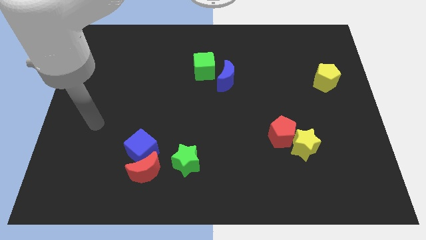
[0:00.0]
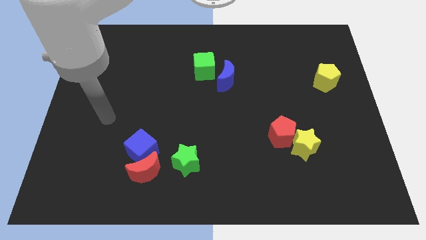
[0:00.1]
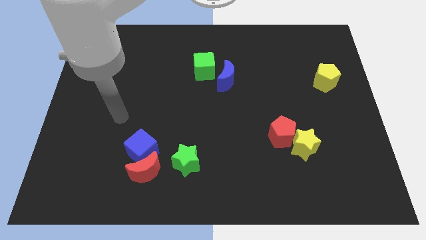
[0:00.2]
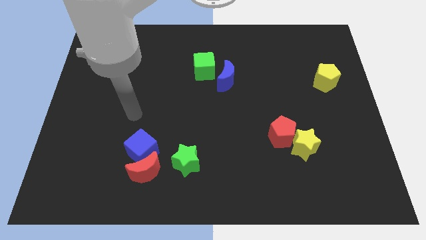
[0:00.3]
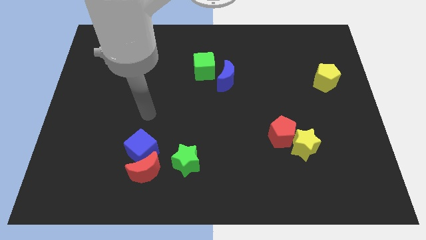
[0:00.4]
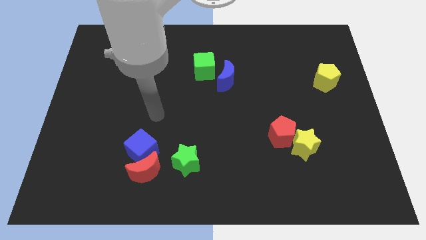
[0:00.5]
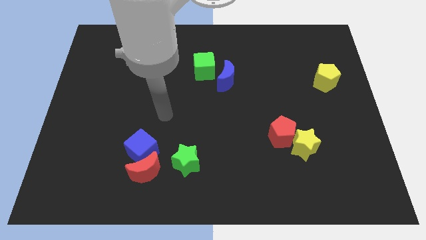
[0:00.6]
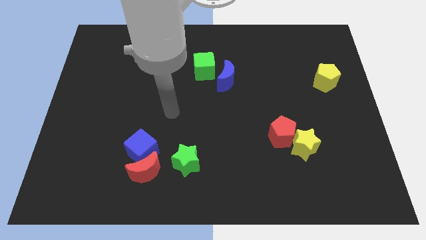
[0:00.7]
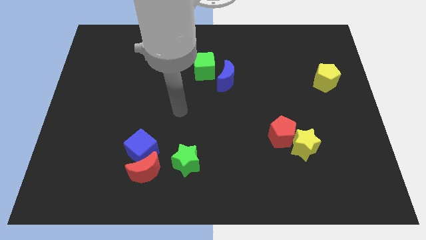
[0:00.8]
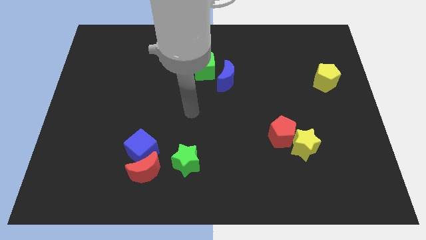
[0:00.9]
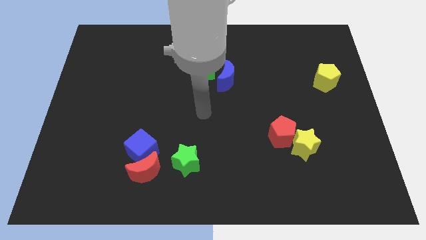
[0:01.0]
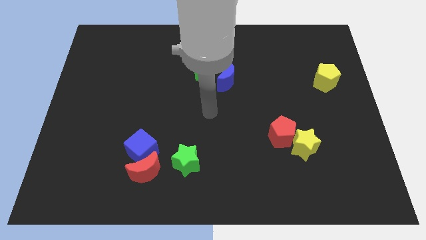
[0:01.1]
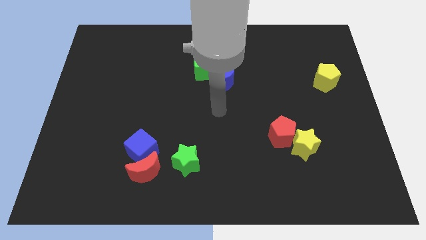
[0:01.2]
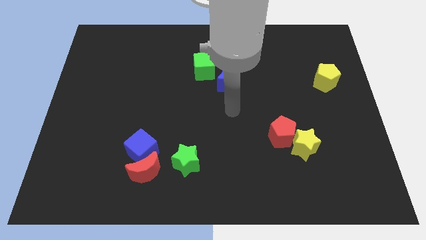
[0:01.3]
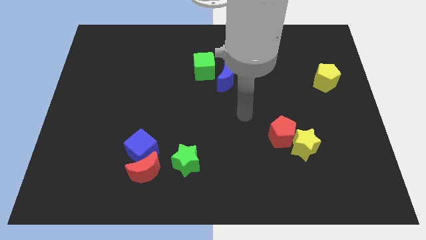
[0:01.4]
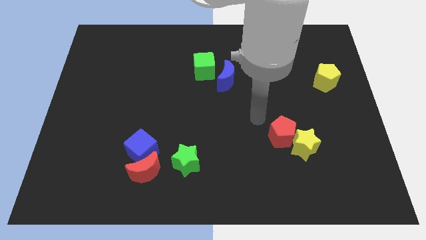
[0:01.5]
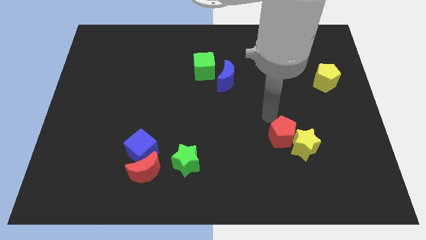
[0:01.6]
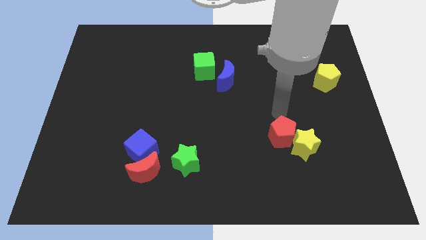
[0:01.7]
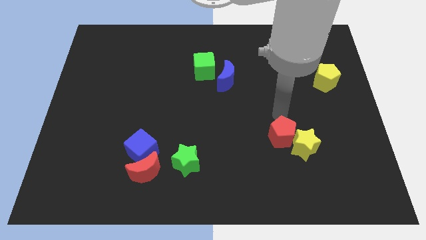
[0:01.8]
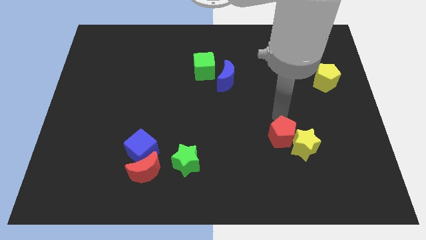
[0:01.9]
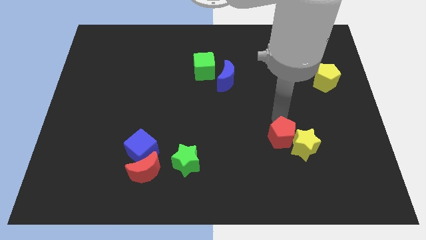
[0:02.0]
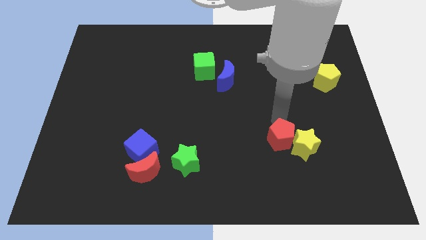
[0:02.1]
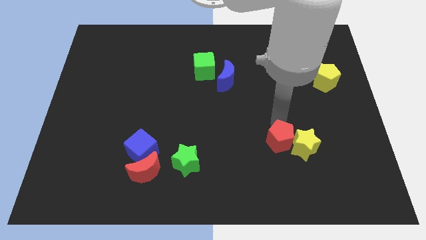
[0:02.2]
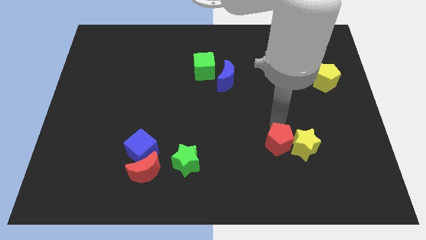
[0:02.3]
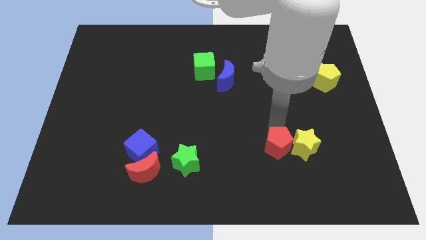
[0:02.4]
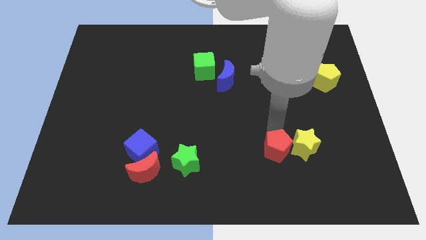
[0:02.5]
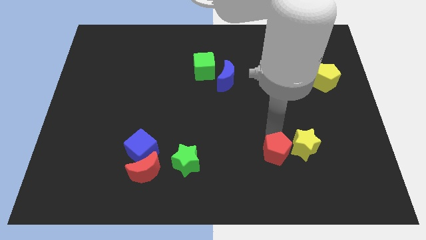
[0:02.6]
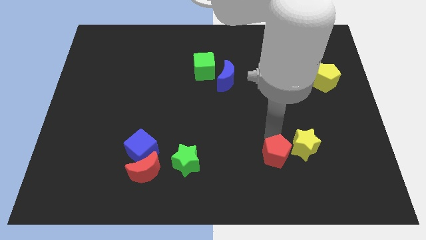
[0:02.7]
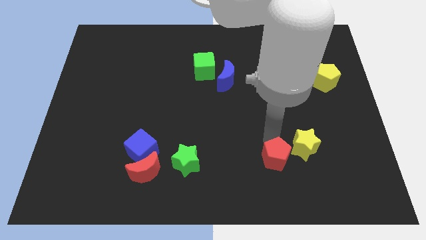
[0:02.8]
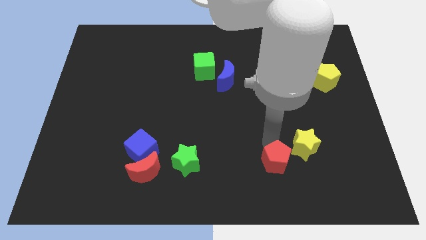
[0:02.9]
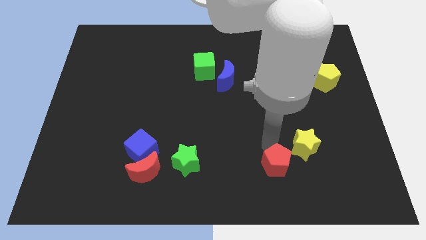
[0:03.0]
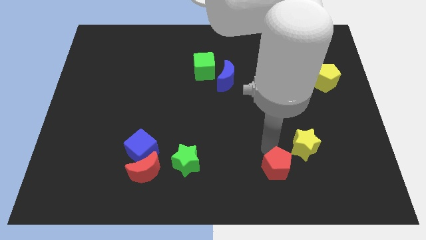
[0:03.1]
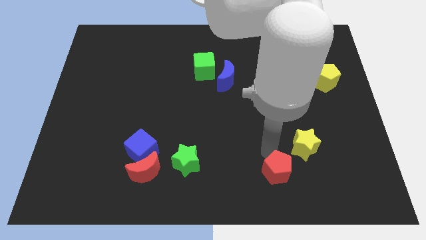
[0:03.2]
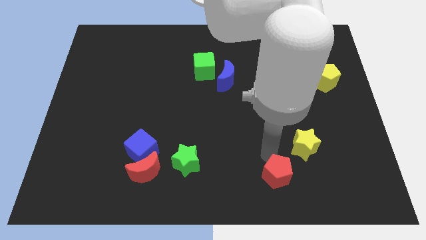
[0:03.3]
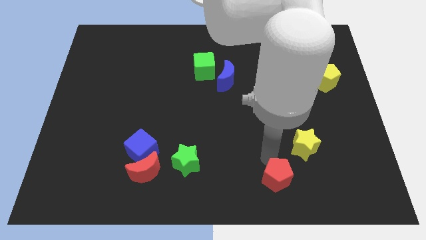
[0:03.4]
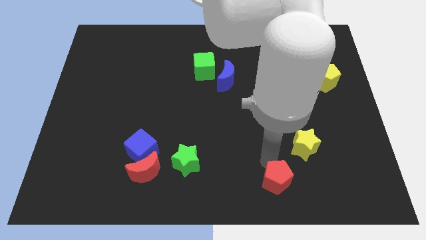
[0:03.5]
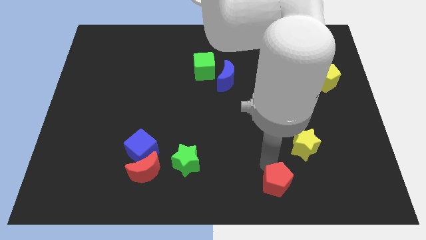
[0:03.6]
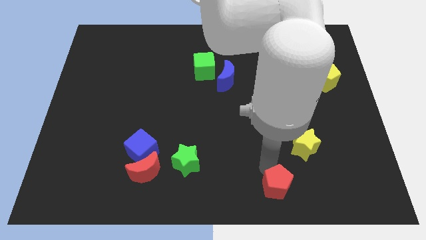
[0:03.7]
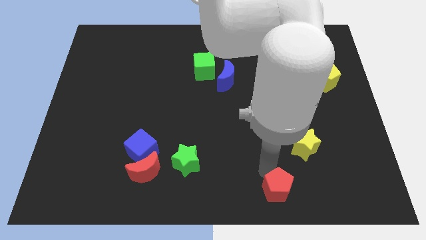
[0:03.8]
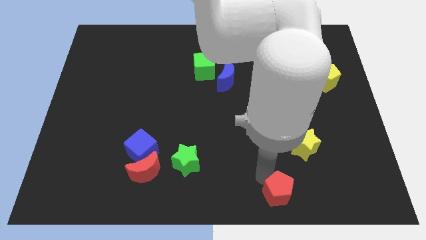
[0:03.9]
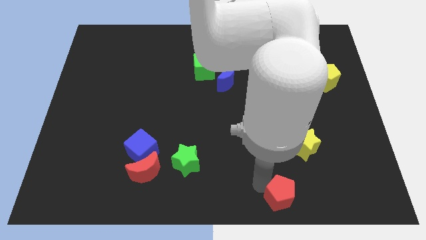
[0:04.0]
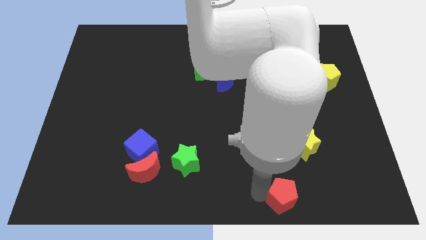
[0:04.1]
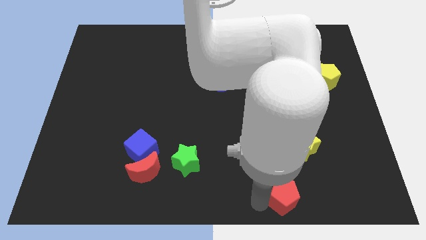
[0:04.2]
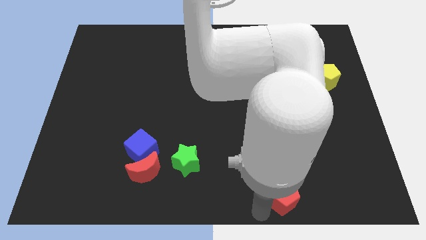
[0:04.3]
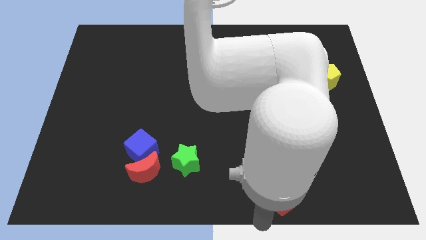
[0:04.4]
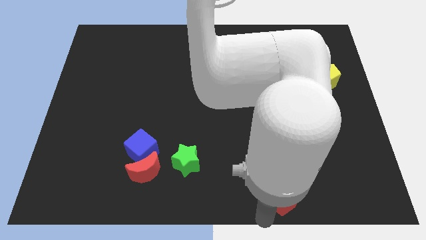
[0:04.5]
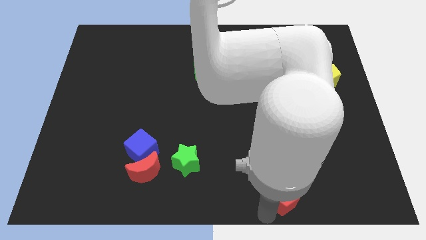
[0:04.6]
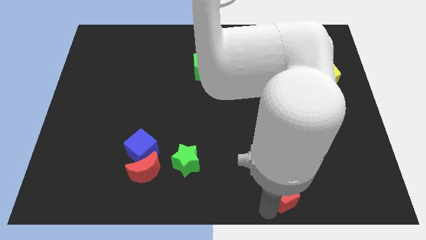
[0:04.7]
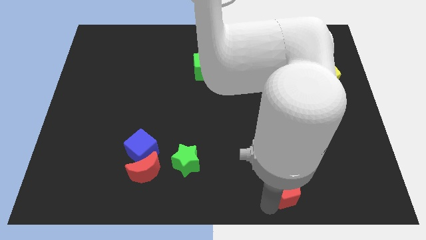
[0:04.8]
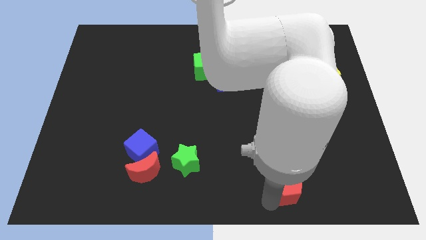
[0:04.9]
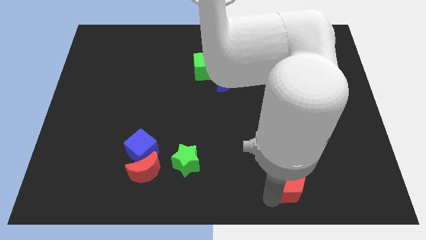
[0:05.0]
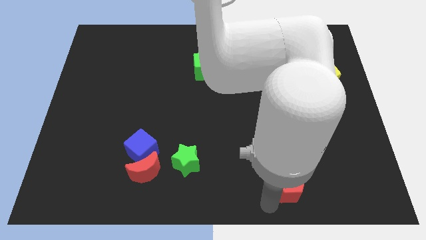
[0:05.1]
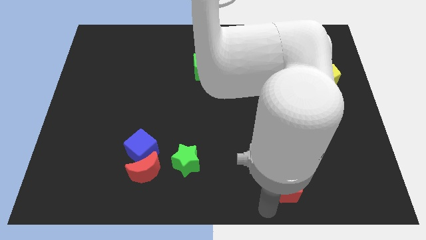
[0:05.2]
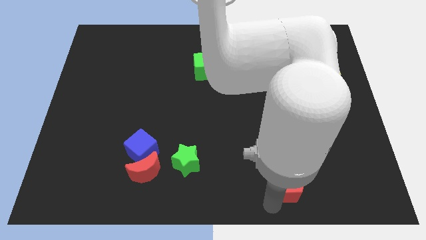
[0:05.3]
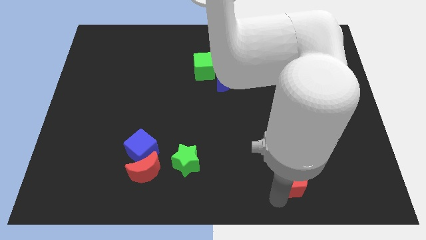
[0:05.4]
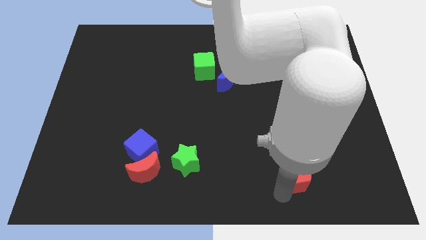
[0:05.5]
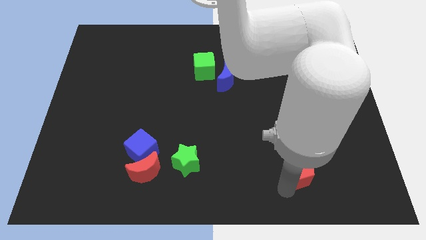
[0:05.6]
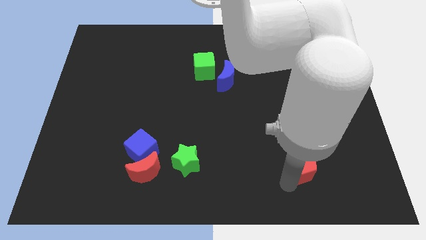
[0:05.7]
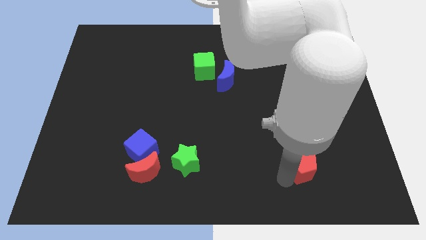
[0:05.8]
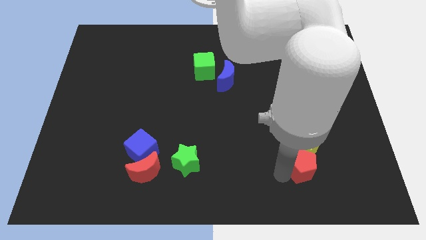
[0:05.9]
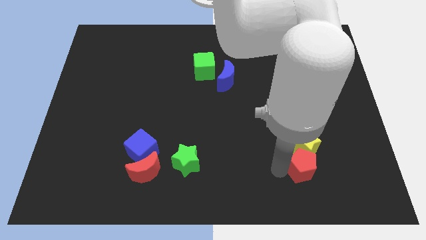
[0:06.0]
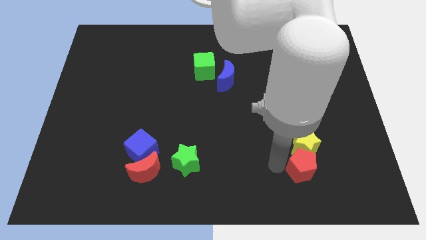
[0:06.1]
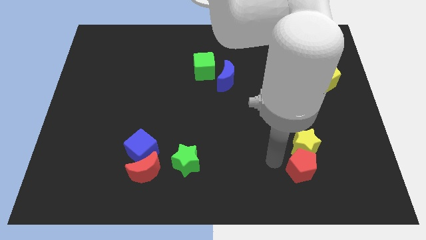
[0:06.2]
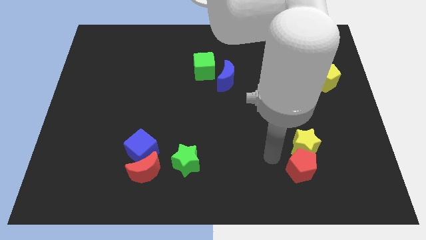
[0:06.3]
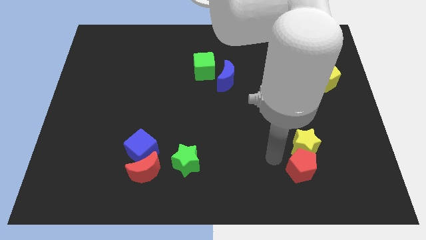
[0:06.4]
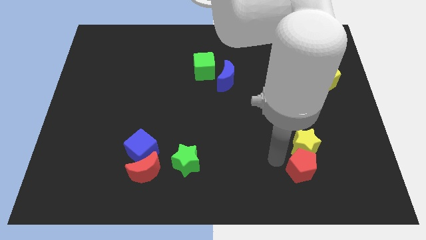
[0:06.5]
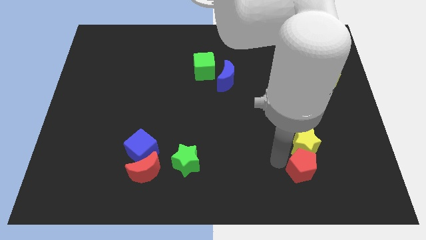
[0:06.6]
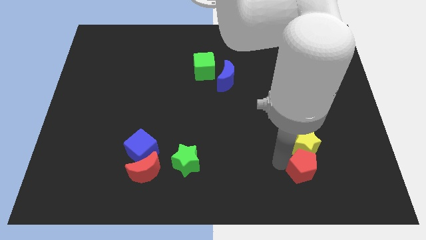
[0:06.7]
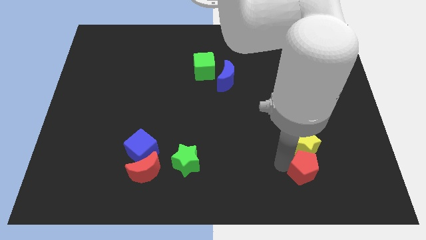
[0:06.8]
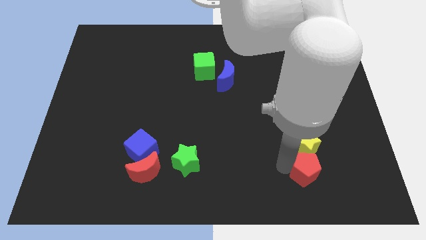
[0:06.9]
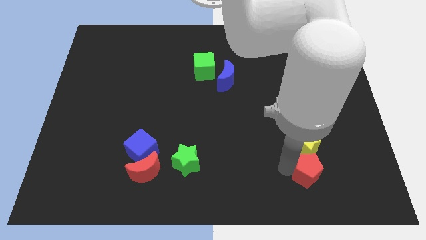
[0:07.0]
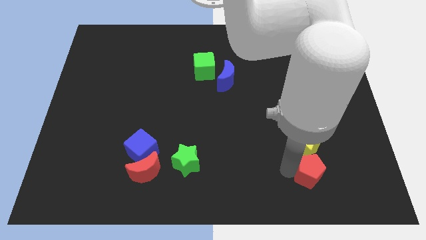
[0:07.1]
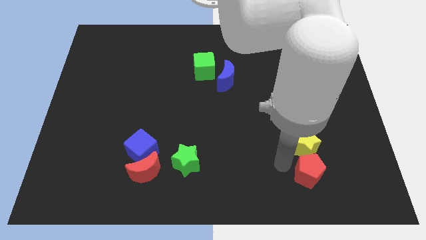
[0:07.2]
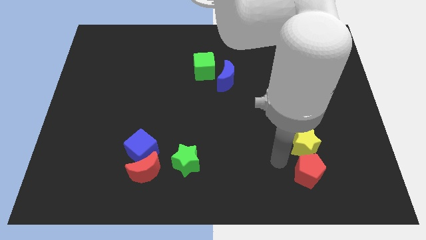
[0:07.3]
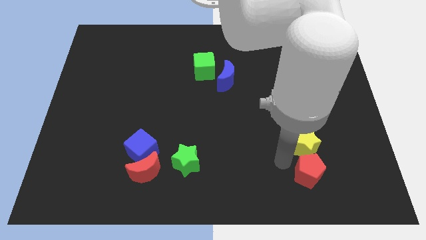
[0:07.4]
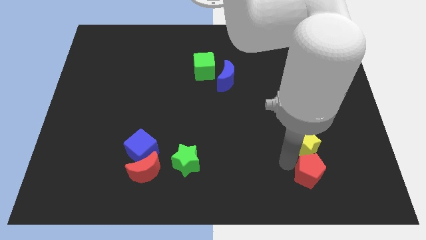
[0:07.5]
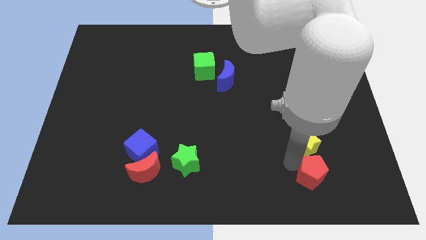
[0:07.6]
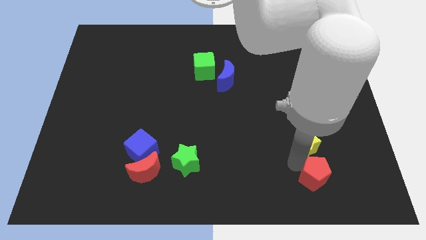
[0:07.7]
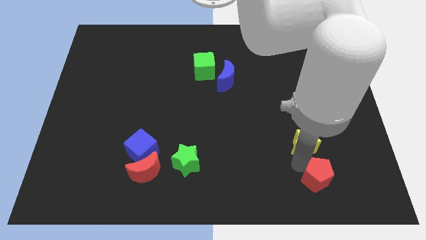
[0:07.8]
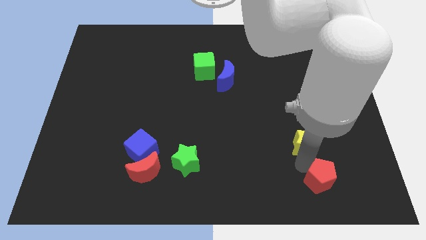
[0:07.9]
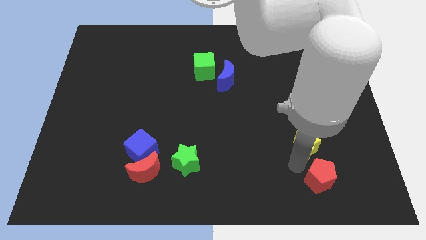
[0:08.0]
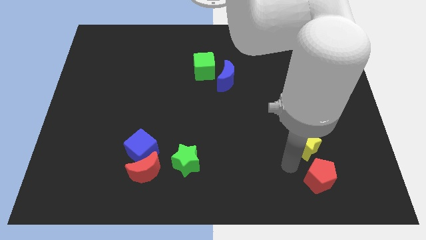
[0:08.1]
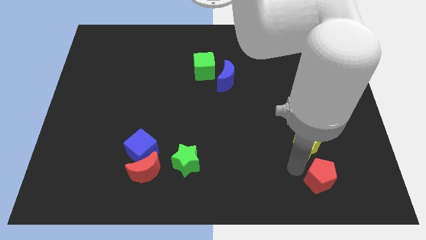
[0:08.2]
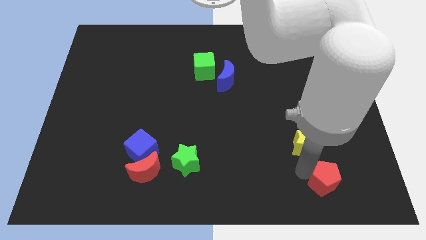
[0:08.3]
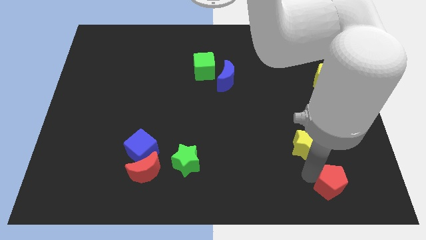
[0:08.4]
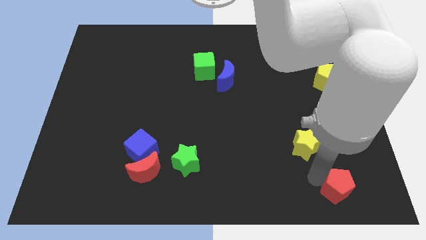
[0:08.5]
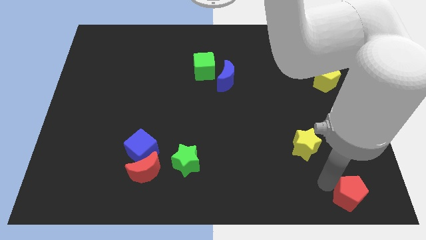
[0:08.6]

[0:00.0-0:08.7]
move the red pentagon to the bottom right corner
